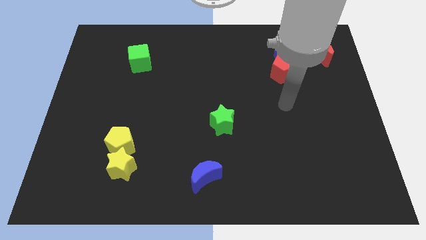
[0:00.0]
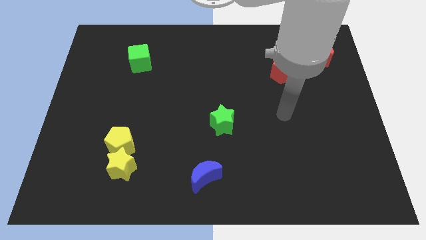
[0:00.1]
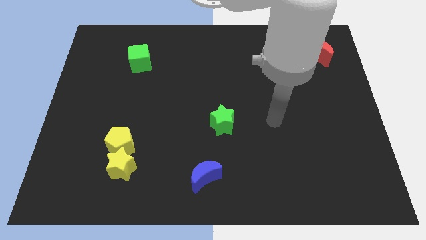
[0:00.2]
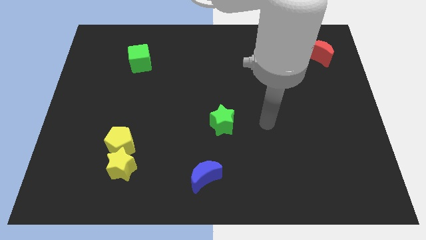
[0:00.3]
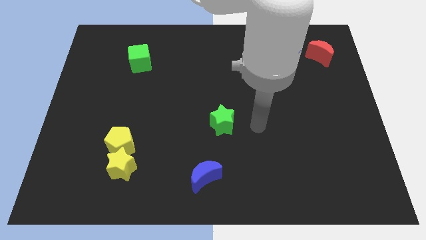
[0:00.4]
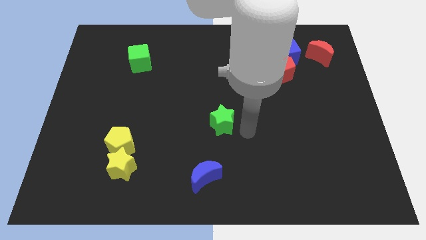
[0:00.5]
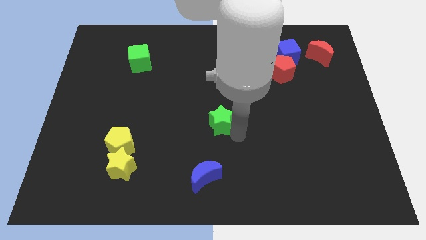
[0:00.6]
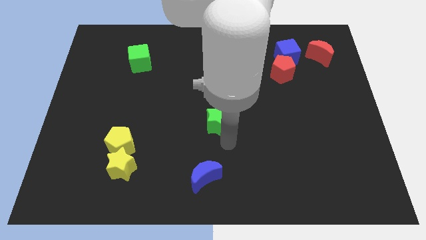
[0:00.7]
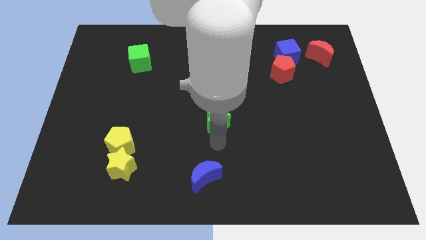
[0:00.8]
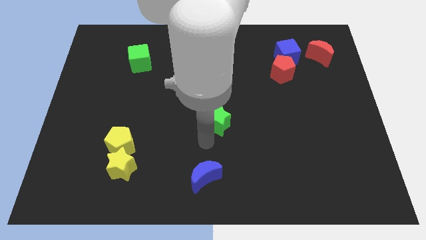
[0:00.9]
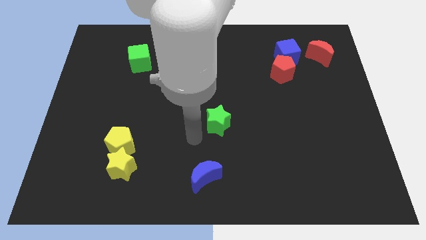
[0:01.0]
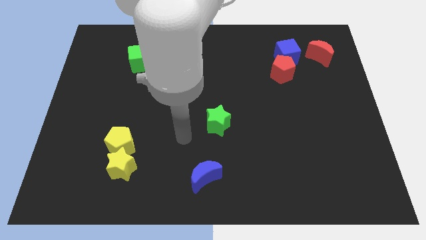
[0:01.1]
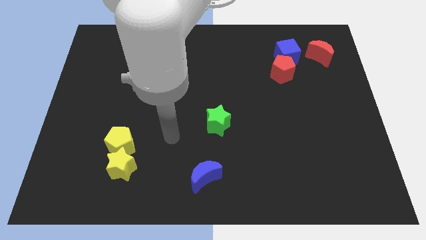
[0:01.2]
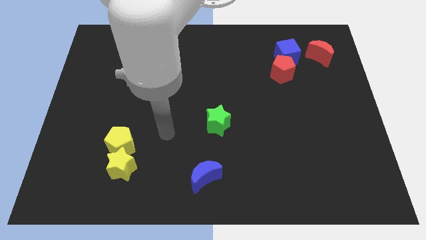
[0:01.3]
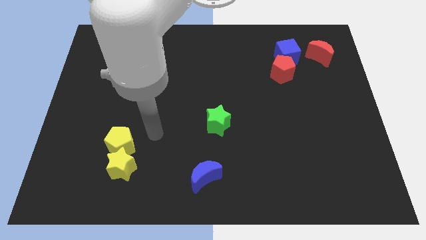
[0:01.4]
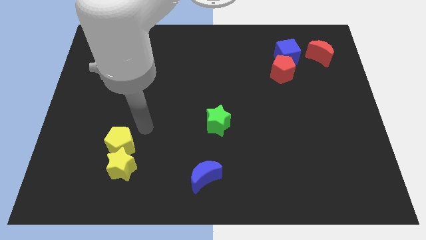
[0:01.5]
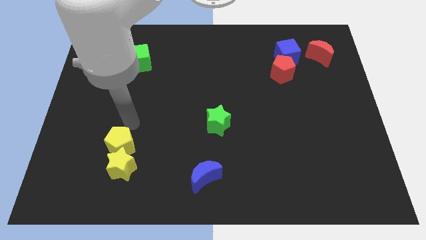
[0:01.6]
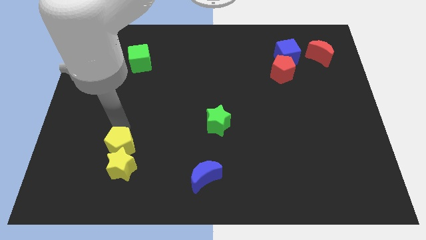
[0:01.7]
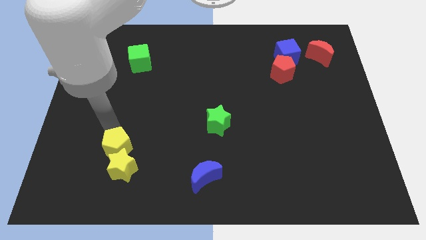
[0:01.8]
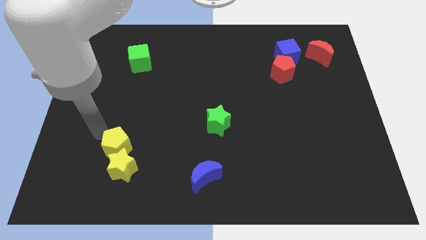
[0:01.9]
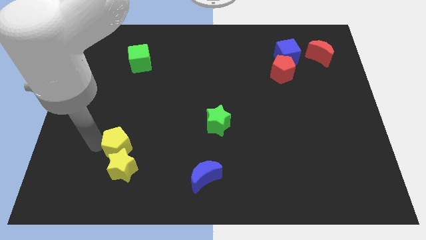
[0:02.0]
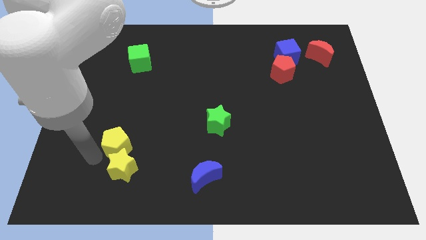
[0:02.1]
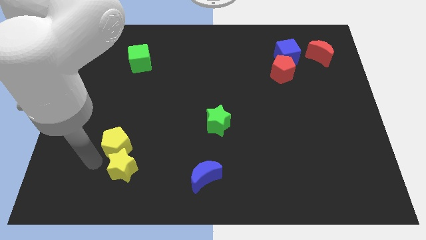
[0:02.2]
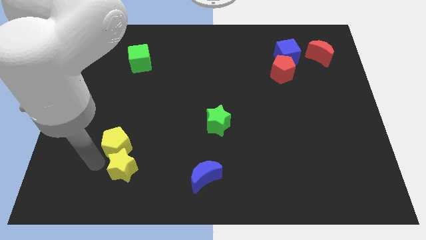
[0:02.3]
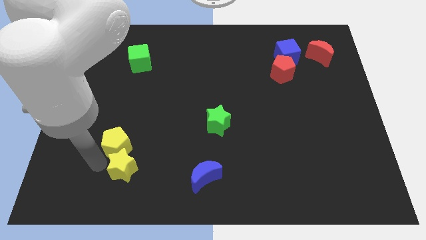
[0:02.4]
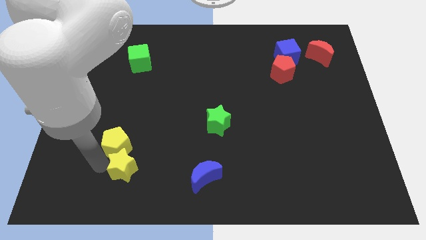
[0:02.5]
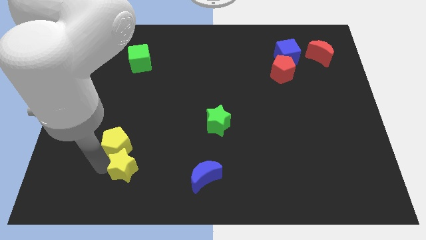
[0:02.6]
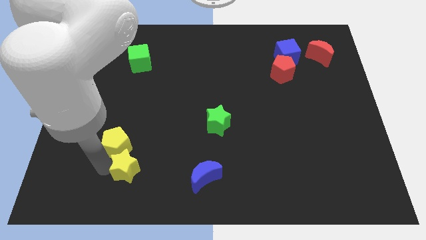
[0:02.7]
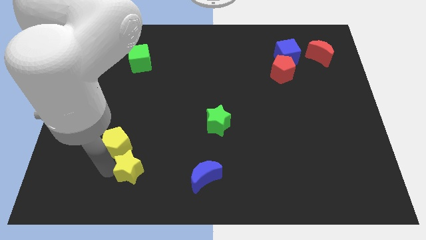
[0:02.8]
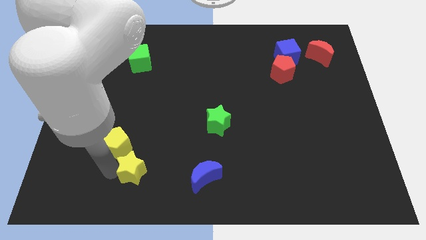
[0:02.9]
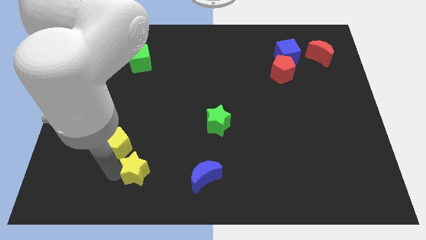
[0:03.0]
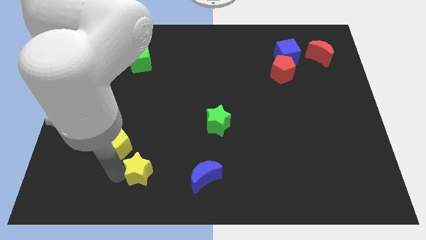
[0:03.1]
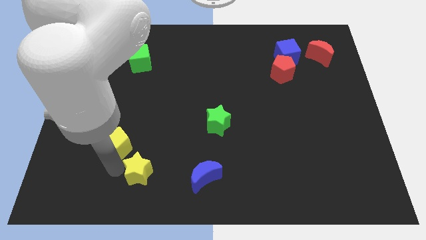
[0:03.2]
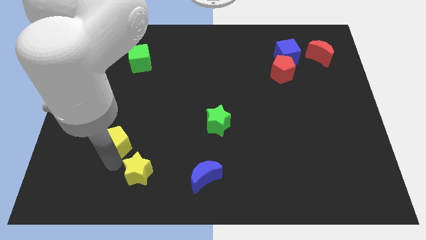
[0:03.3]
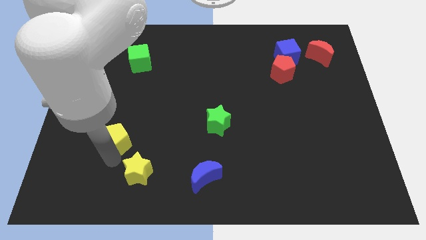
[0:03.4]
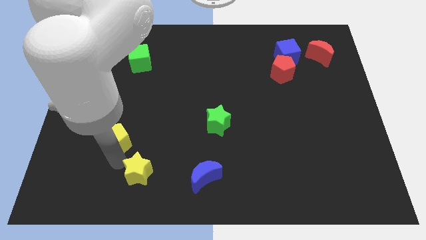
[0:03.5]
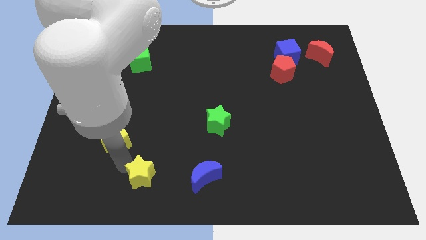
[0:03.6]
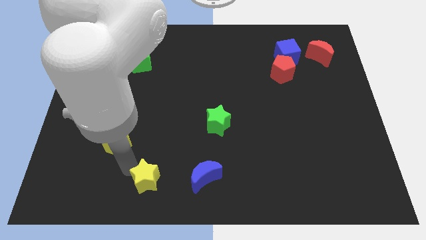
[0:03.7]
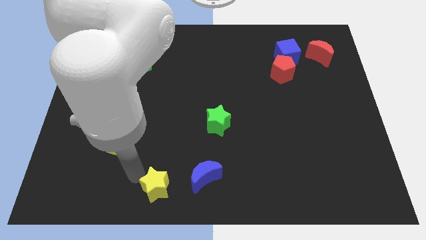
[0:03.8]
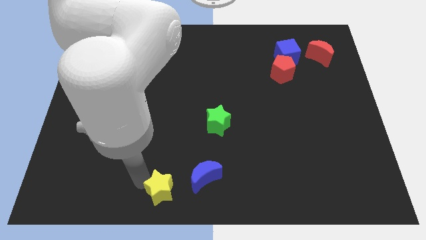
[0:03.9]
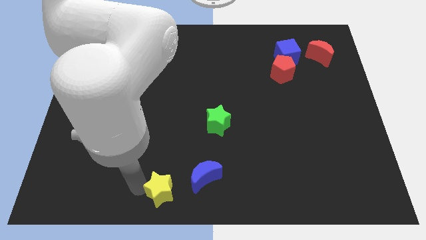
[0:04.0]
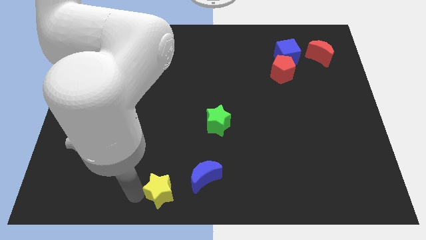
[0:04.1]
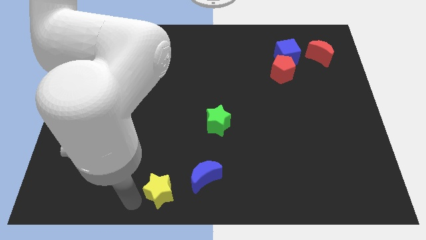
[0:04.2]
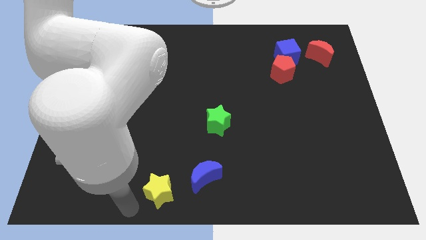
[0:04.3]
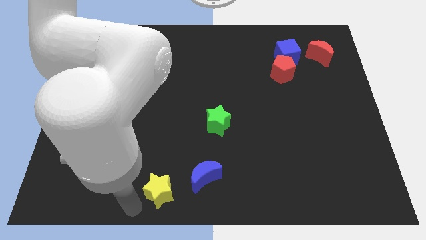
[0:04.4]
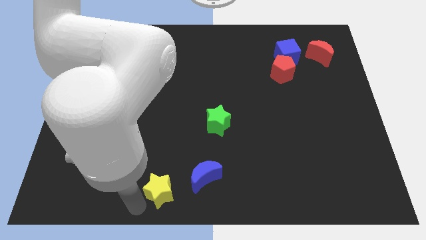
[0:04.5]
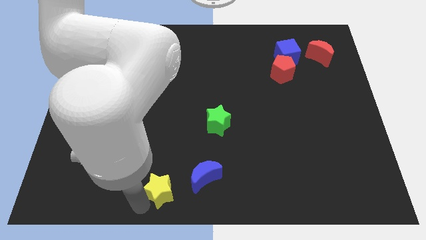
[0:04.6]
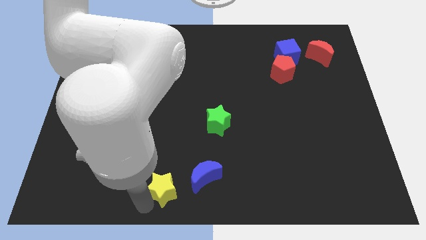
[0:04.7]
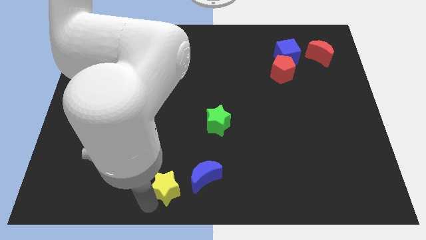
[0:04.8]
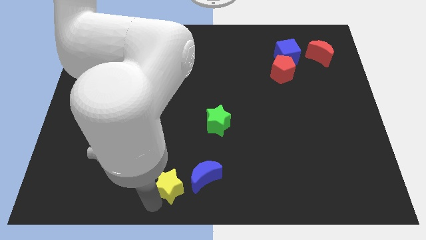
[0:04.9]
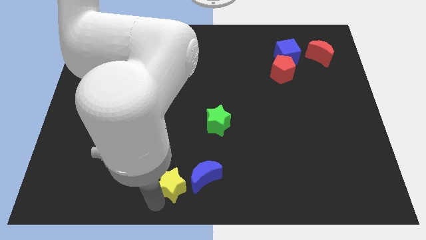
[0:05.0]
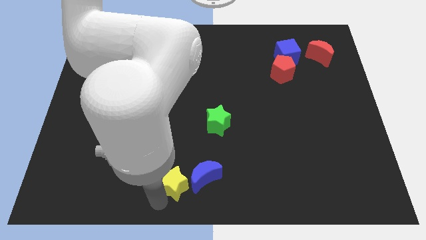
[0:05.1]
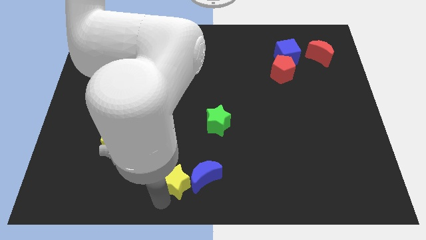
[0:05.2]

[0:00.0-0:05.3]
move the yellow star close to the blue moon

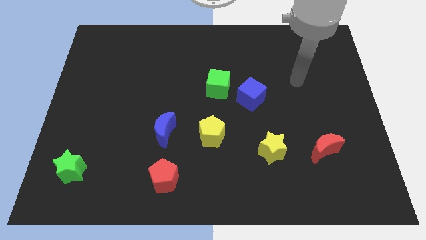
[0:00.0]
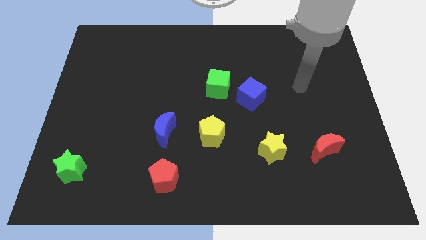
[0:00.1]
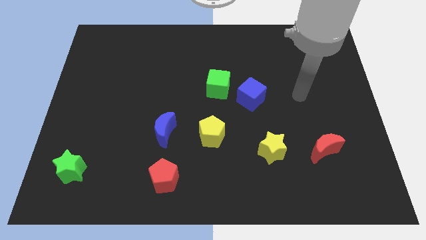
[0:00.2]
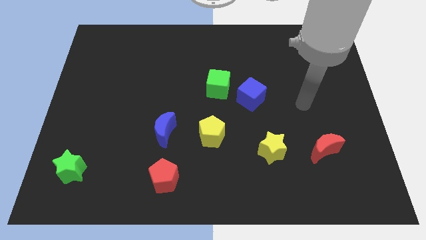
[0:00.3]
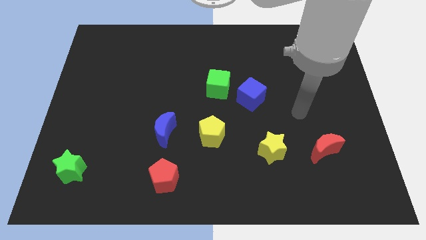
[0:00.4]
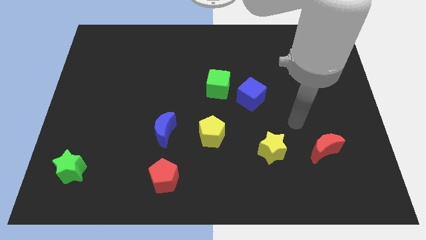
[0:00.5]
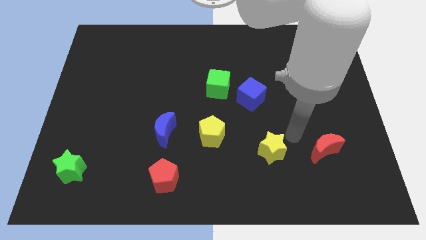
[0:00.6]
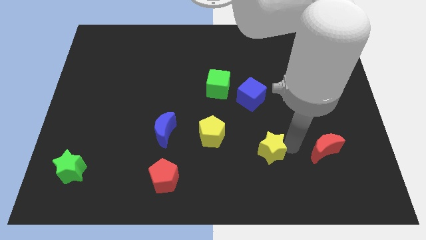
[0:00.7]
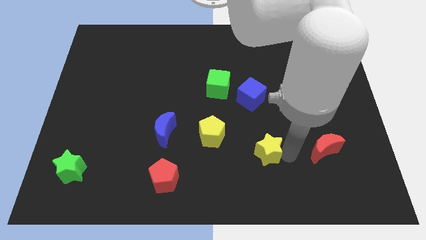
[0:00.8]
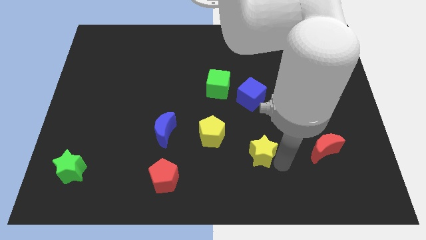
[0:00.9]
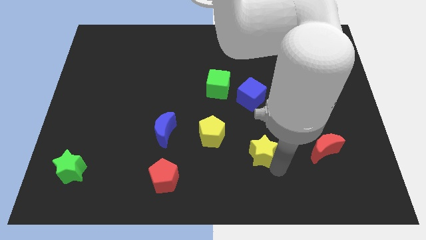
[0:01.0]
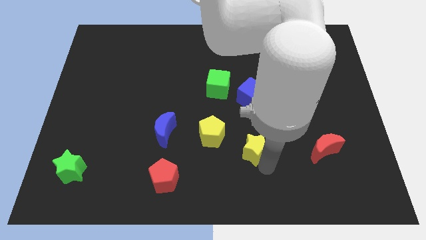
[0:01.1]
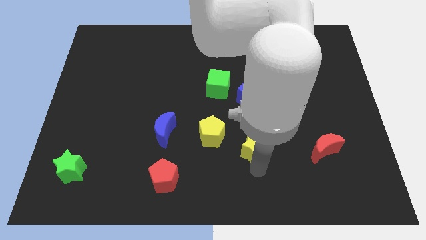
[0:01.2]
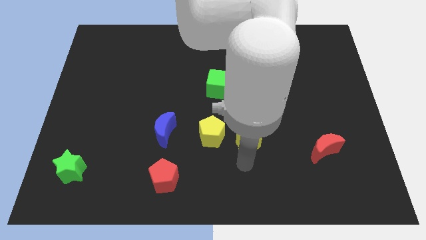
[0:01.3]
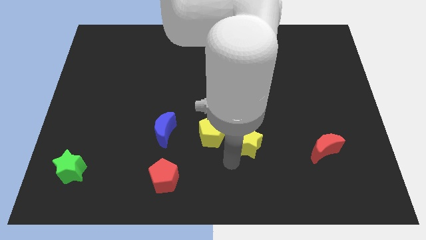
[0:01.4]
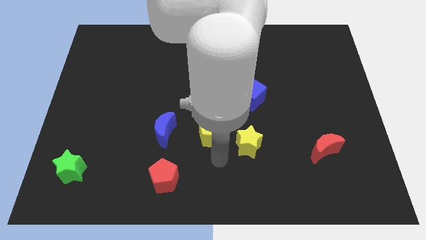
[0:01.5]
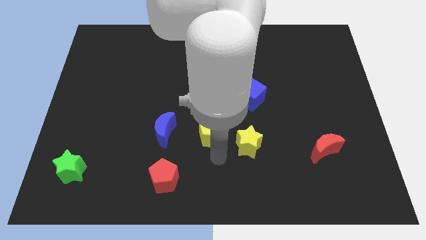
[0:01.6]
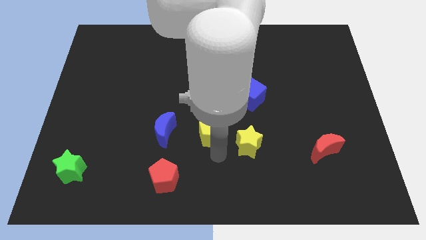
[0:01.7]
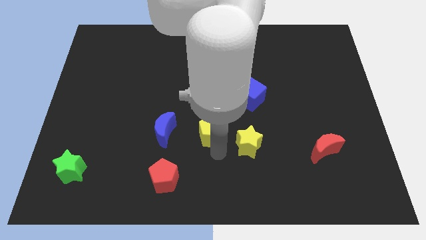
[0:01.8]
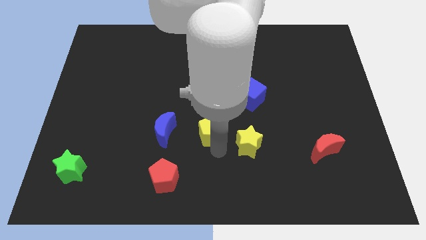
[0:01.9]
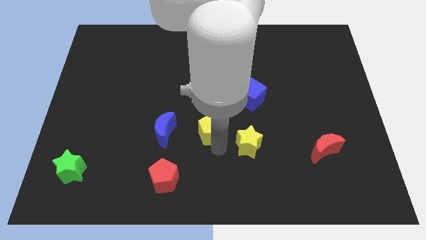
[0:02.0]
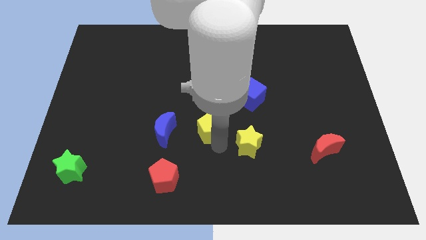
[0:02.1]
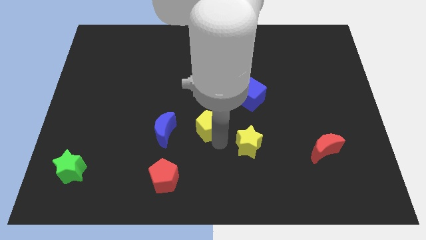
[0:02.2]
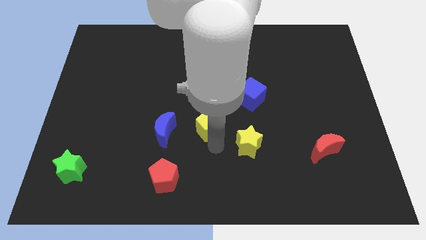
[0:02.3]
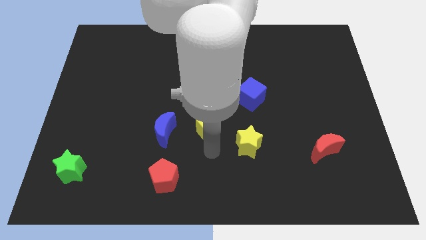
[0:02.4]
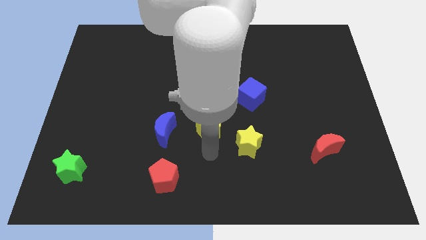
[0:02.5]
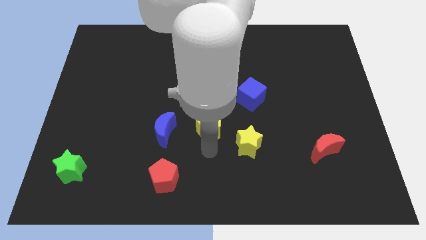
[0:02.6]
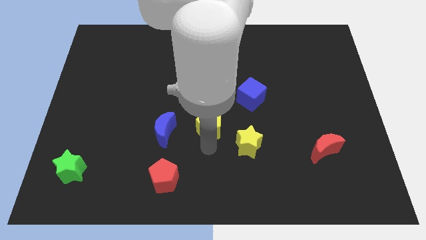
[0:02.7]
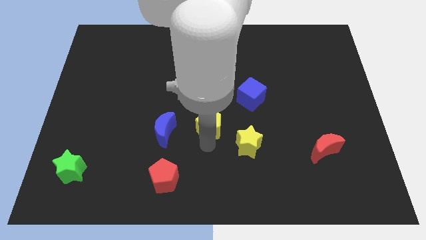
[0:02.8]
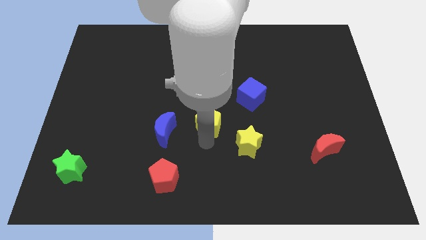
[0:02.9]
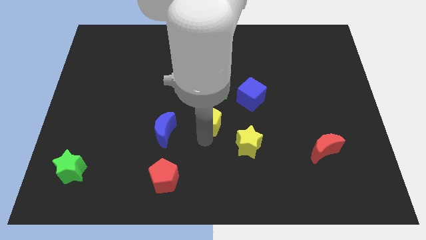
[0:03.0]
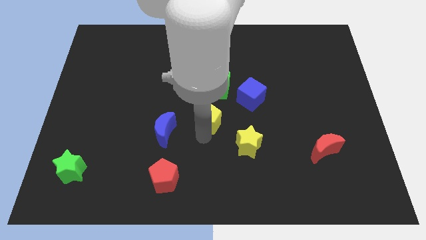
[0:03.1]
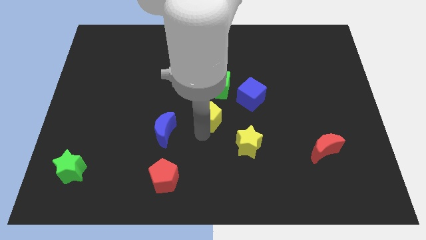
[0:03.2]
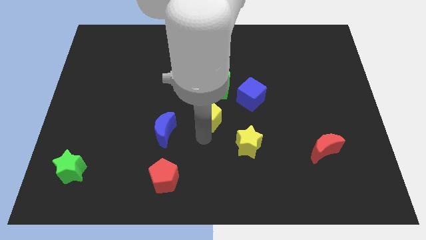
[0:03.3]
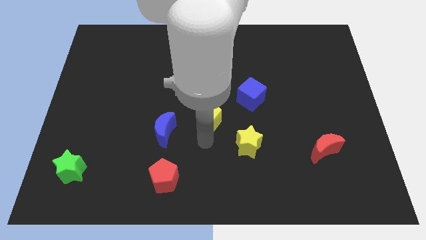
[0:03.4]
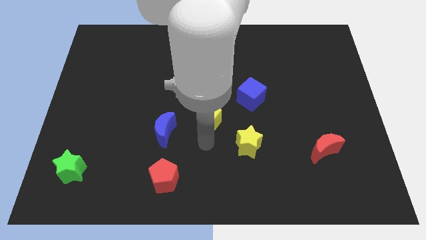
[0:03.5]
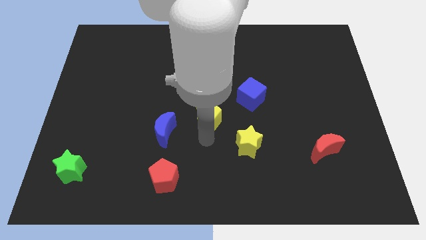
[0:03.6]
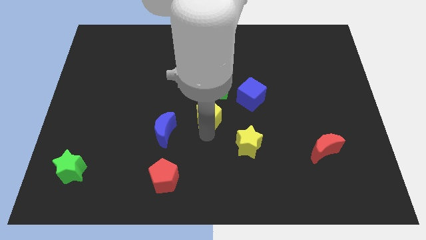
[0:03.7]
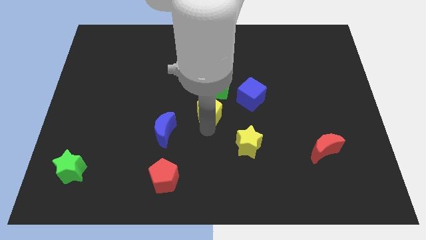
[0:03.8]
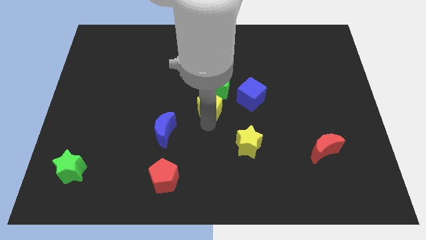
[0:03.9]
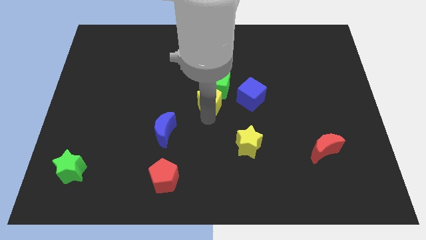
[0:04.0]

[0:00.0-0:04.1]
move the yellow pentagon close to the green cube
